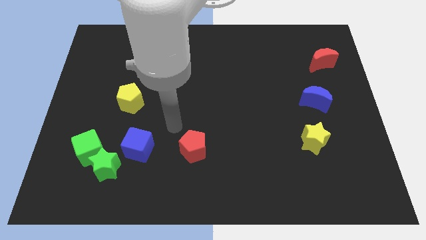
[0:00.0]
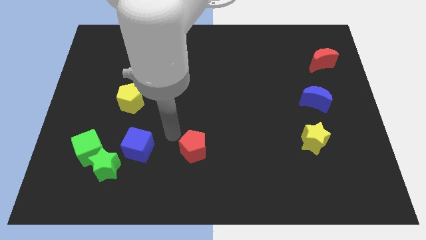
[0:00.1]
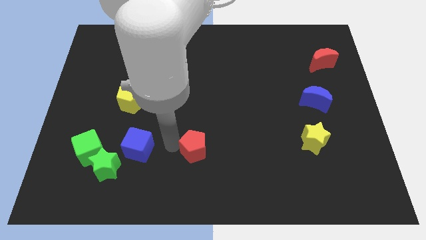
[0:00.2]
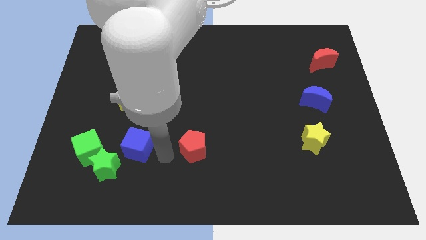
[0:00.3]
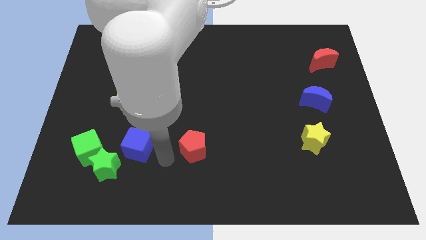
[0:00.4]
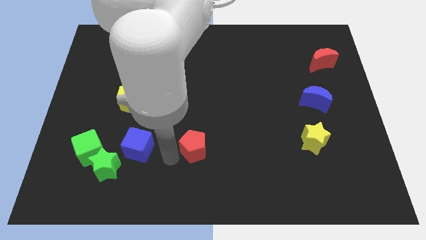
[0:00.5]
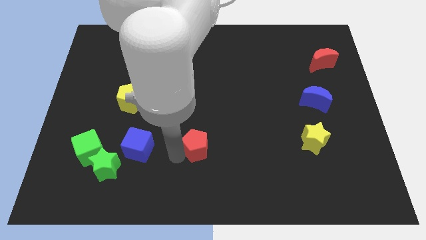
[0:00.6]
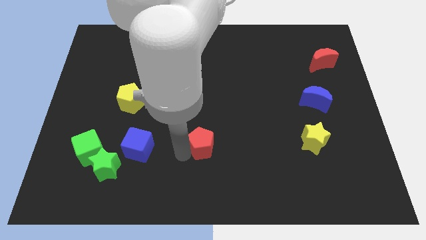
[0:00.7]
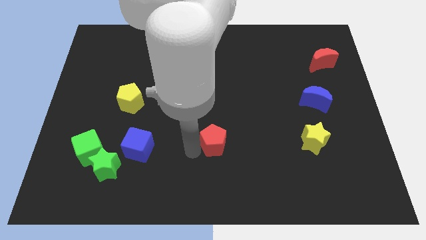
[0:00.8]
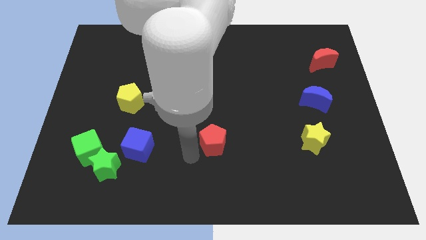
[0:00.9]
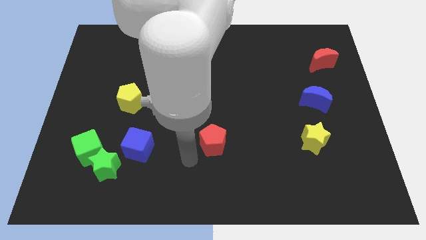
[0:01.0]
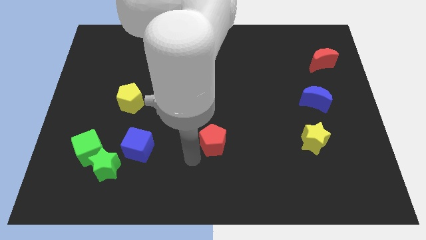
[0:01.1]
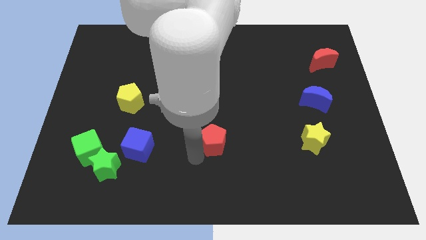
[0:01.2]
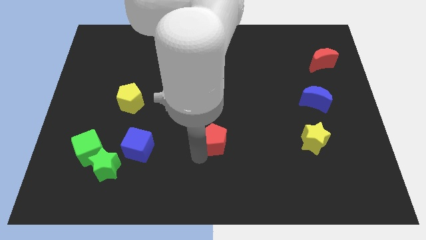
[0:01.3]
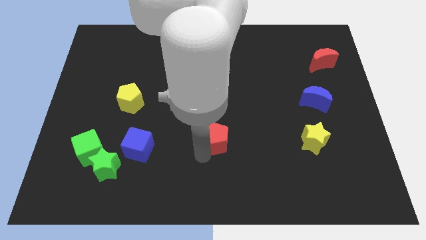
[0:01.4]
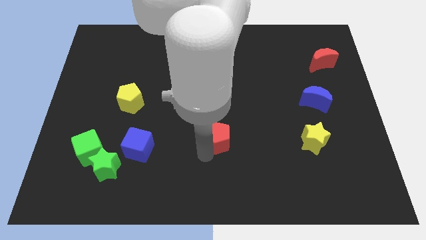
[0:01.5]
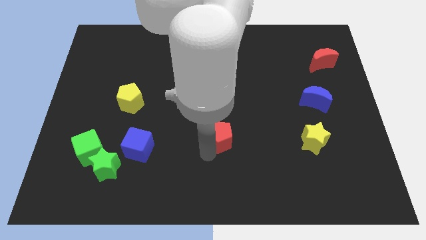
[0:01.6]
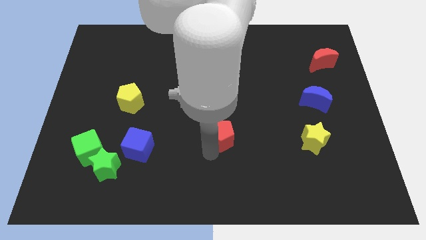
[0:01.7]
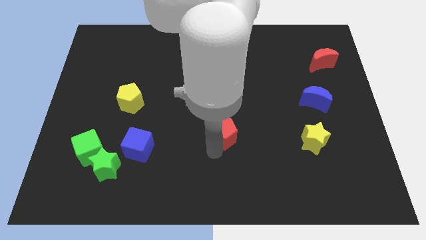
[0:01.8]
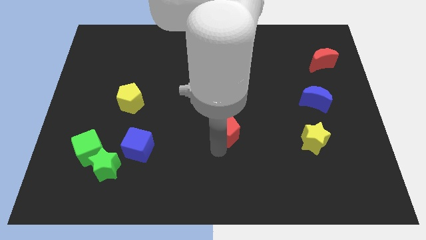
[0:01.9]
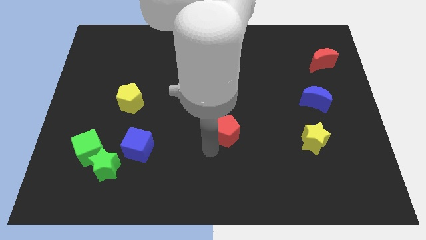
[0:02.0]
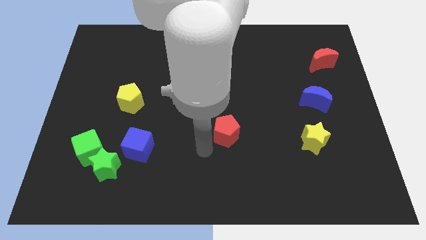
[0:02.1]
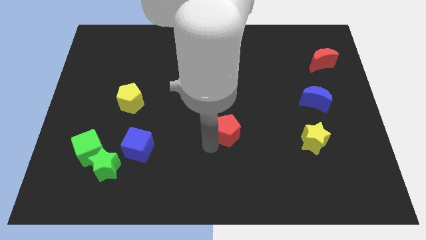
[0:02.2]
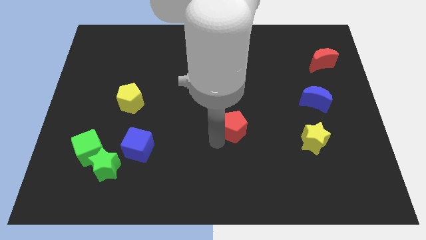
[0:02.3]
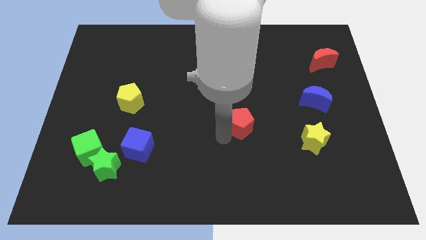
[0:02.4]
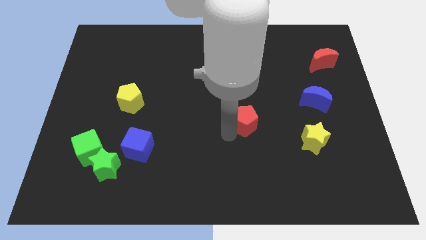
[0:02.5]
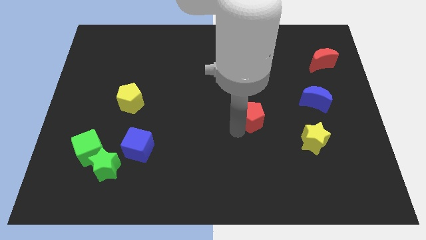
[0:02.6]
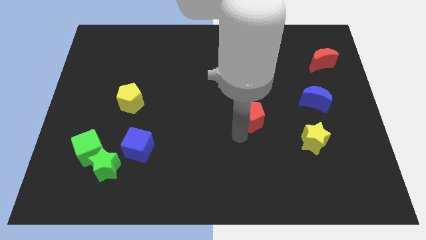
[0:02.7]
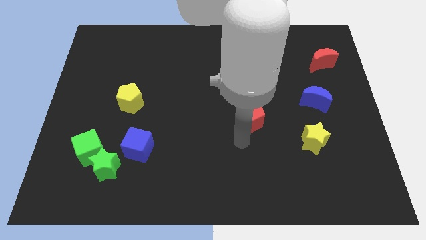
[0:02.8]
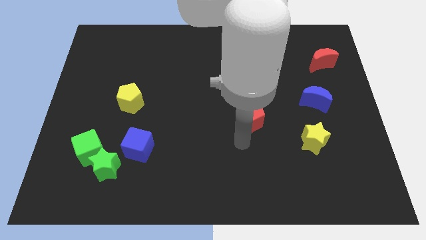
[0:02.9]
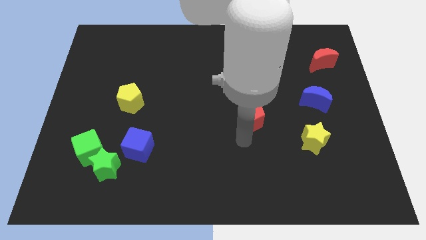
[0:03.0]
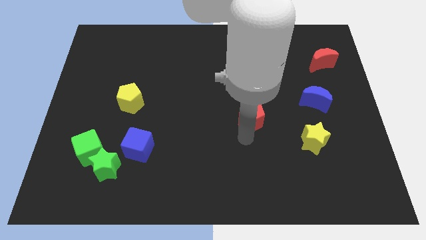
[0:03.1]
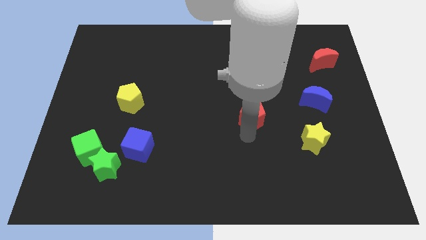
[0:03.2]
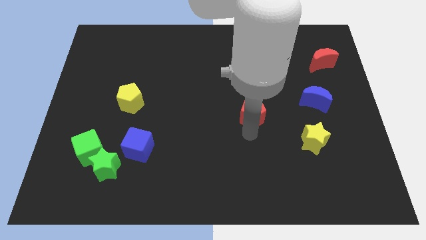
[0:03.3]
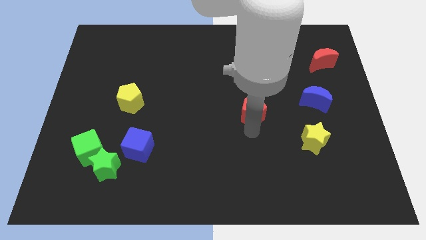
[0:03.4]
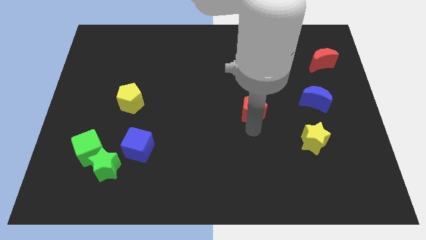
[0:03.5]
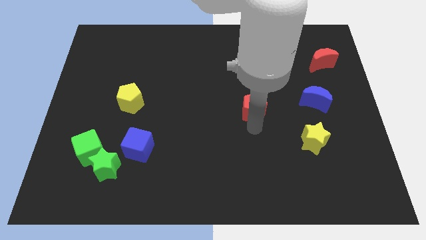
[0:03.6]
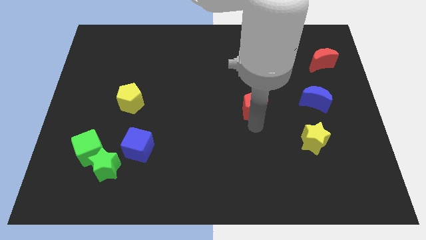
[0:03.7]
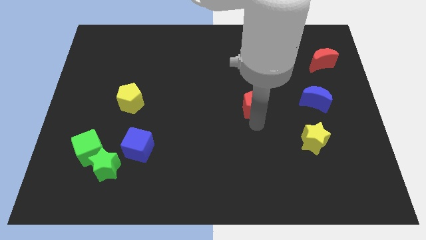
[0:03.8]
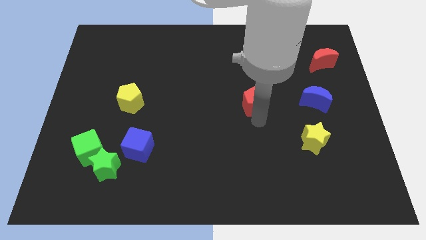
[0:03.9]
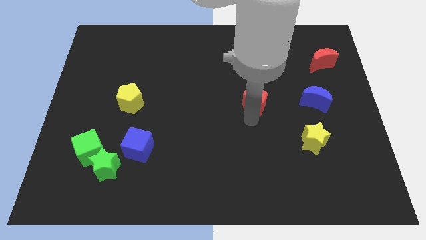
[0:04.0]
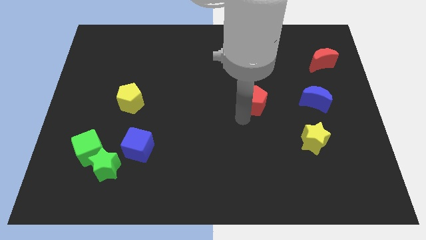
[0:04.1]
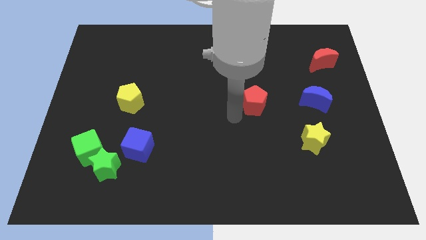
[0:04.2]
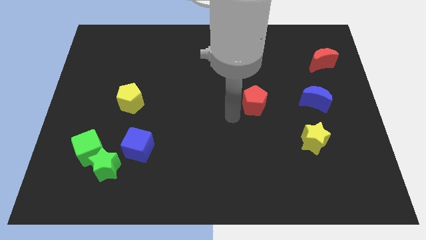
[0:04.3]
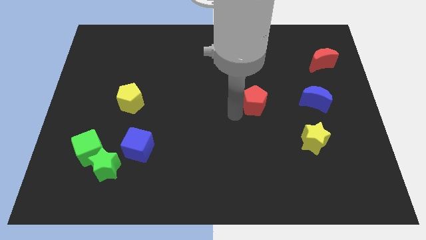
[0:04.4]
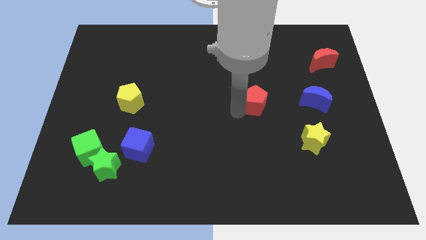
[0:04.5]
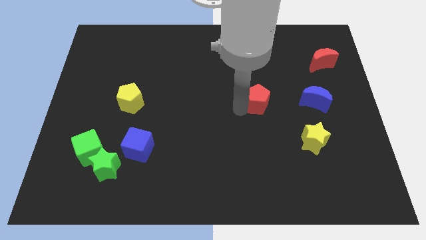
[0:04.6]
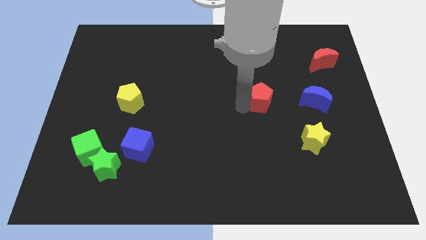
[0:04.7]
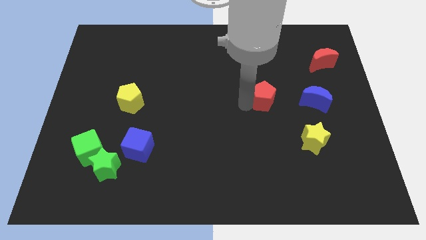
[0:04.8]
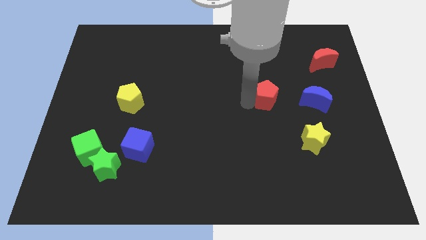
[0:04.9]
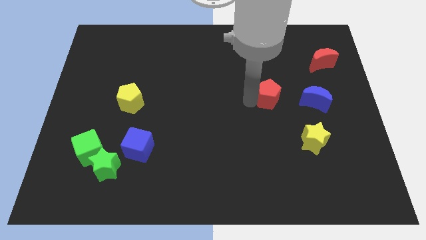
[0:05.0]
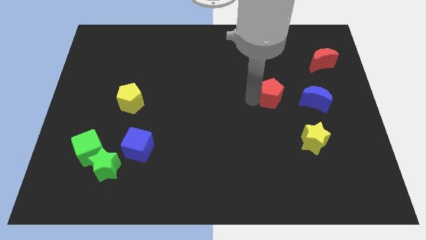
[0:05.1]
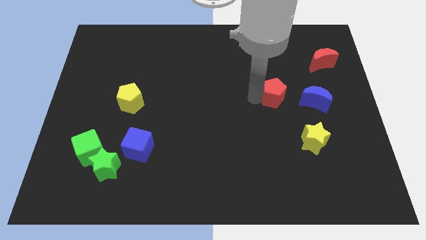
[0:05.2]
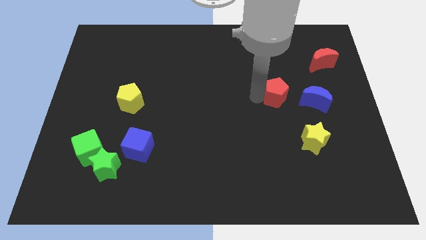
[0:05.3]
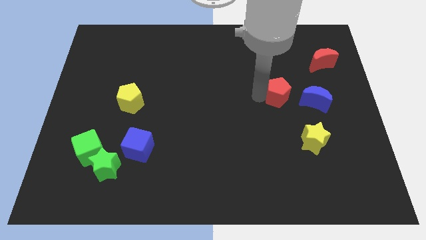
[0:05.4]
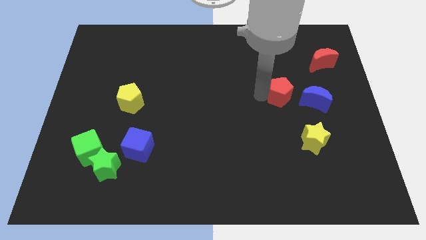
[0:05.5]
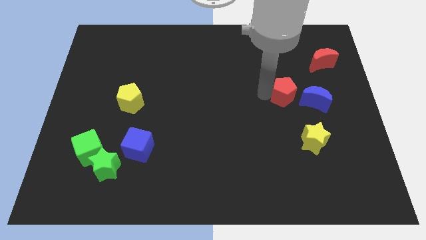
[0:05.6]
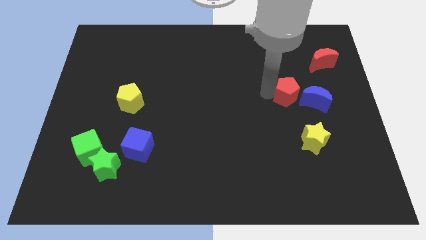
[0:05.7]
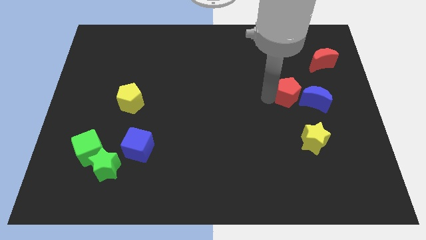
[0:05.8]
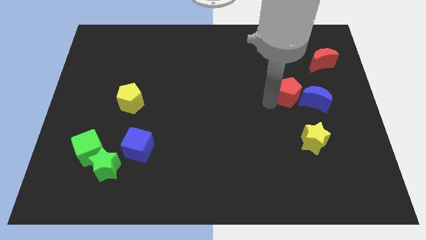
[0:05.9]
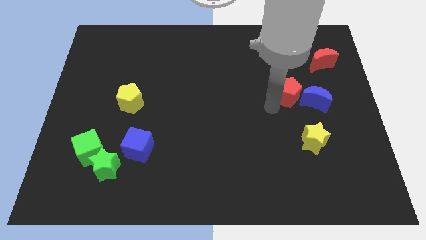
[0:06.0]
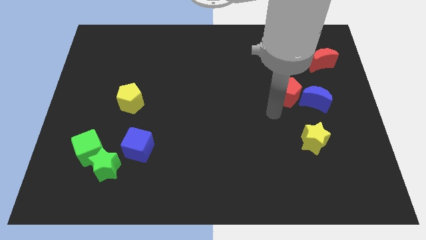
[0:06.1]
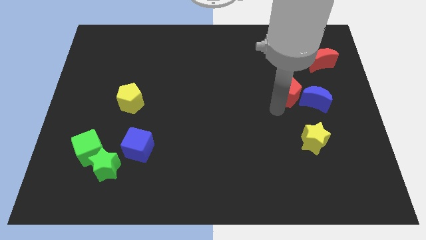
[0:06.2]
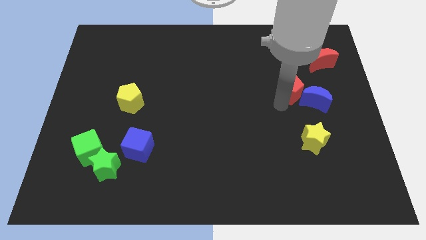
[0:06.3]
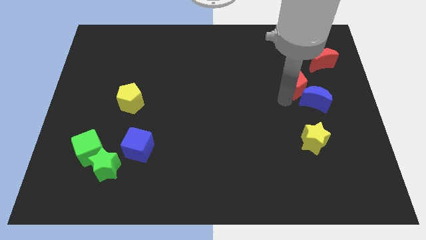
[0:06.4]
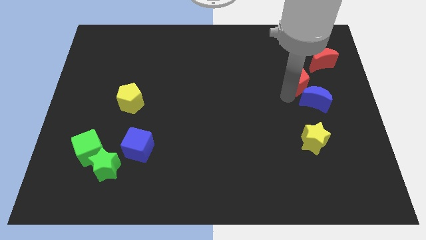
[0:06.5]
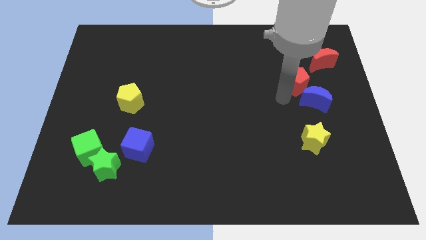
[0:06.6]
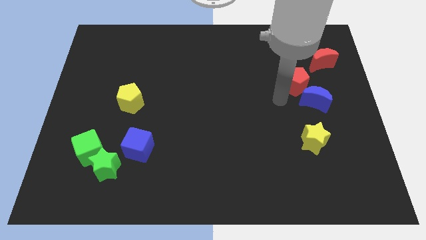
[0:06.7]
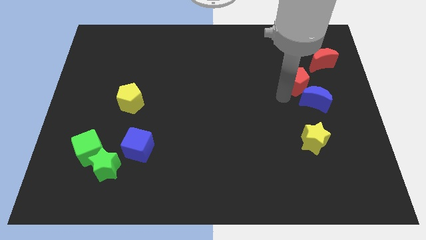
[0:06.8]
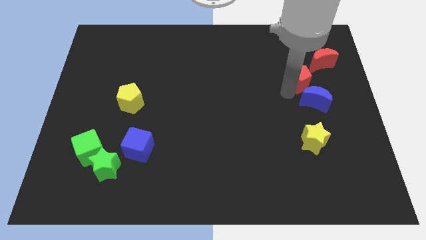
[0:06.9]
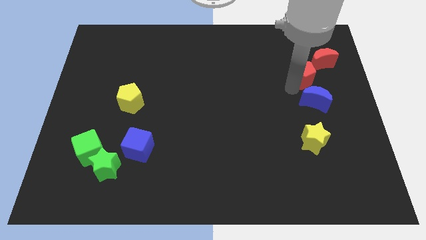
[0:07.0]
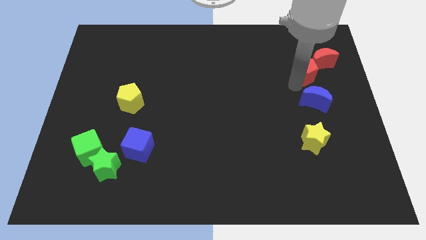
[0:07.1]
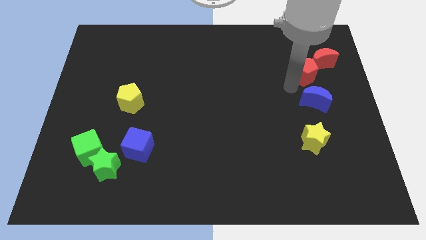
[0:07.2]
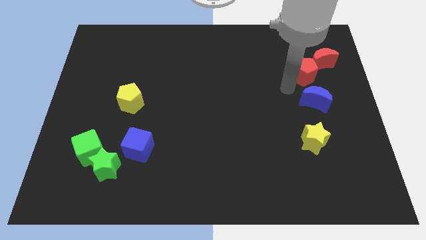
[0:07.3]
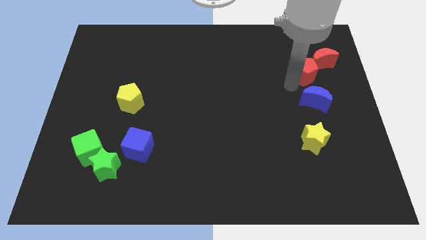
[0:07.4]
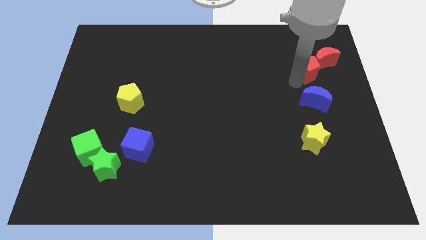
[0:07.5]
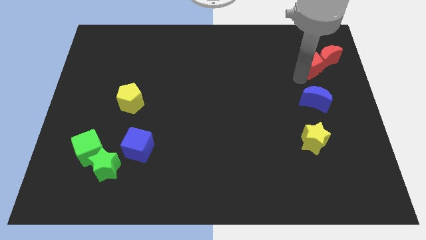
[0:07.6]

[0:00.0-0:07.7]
slide the red pentagon next to the red moon

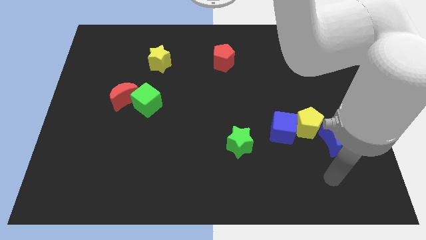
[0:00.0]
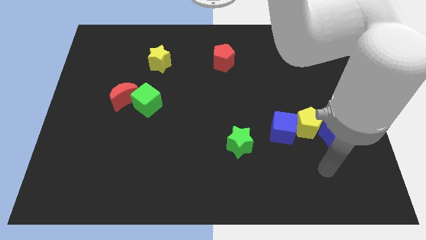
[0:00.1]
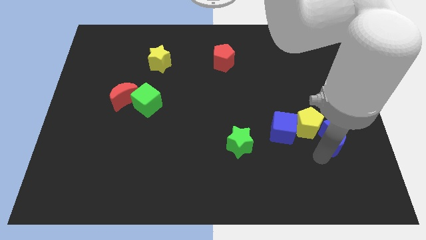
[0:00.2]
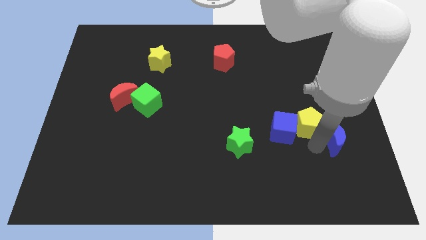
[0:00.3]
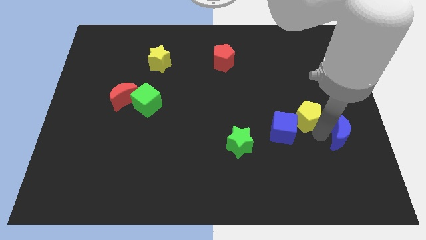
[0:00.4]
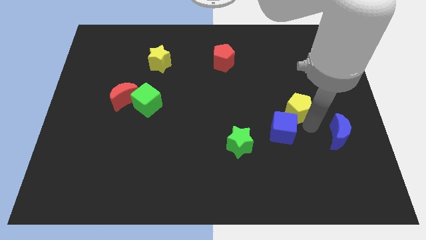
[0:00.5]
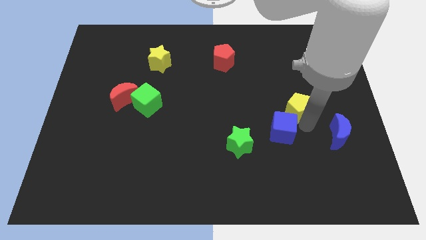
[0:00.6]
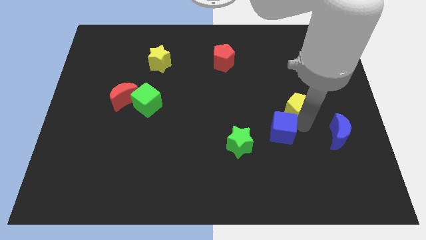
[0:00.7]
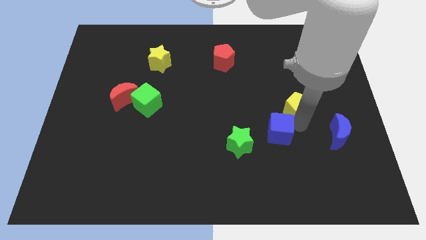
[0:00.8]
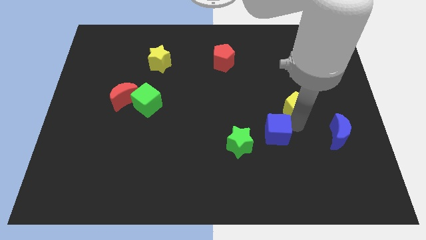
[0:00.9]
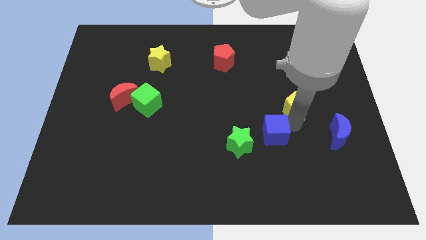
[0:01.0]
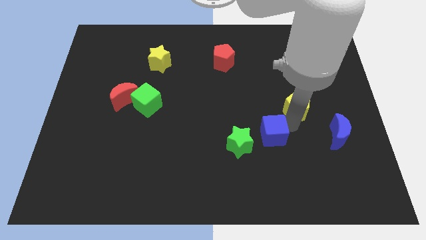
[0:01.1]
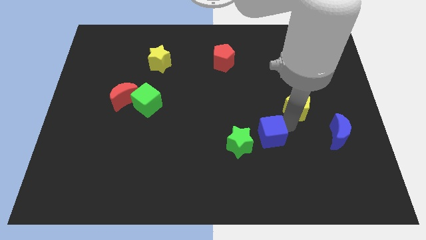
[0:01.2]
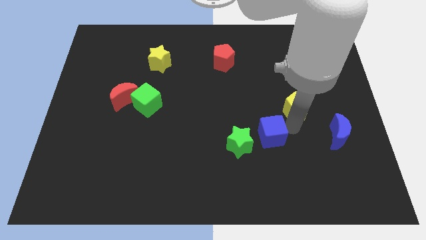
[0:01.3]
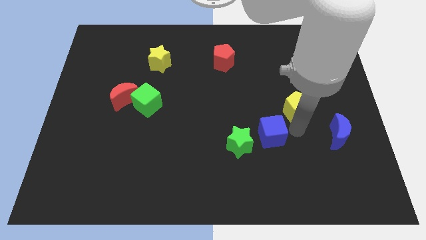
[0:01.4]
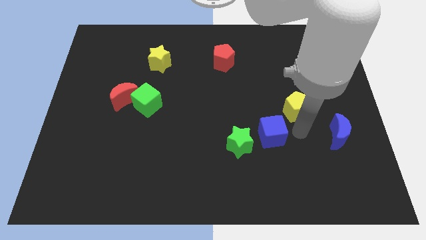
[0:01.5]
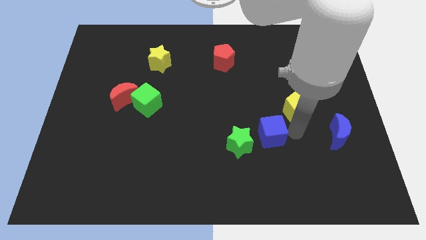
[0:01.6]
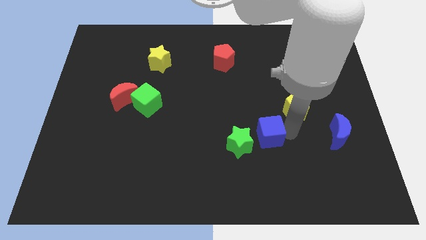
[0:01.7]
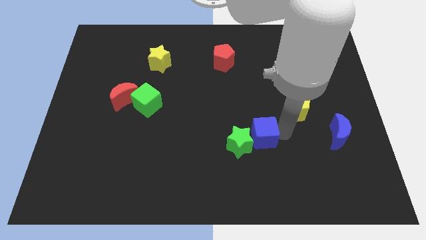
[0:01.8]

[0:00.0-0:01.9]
push the blue cube close to the green star
